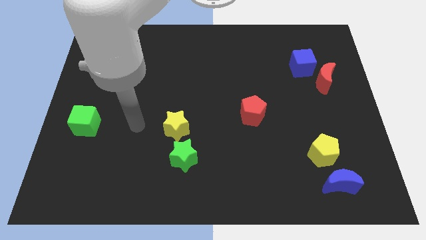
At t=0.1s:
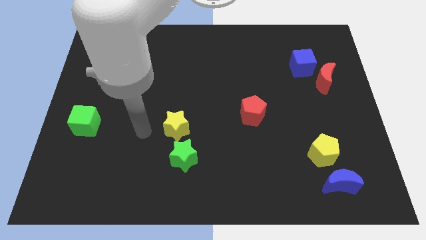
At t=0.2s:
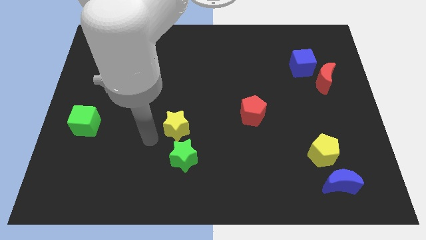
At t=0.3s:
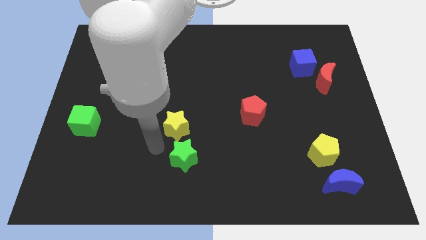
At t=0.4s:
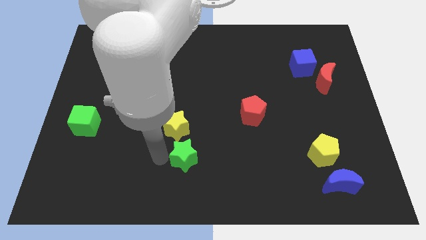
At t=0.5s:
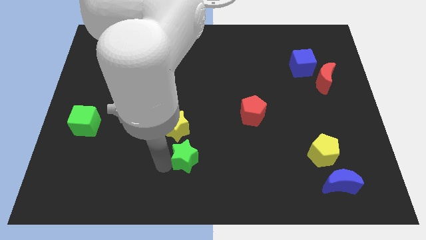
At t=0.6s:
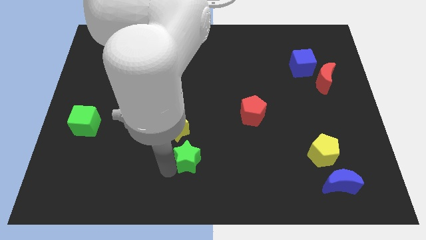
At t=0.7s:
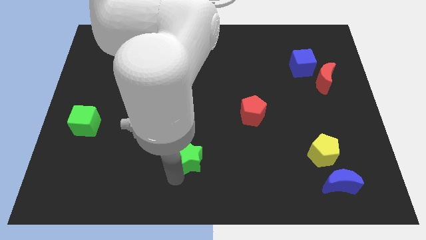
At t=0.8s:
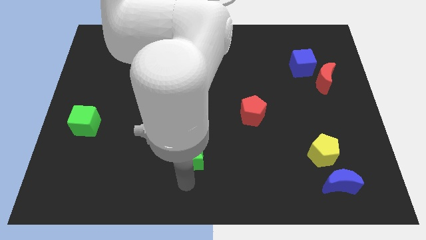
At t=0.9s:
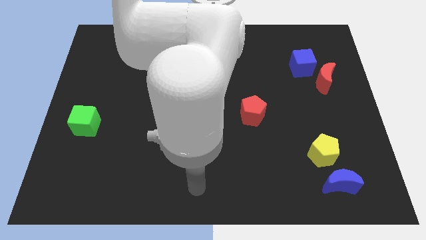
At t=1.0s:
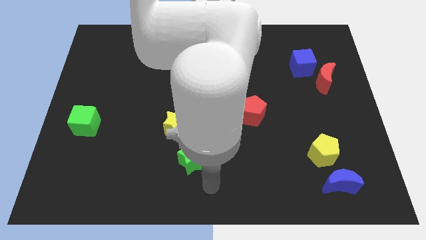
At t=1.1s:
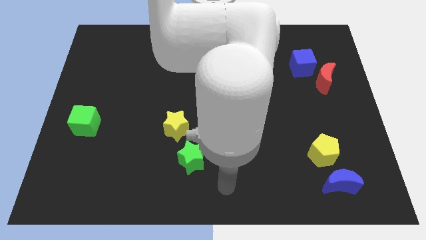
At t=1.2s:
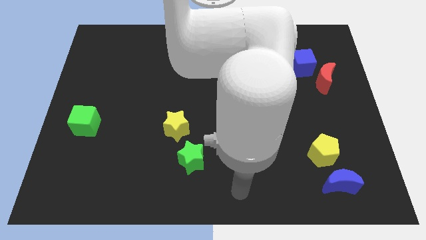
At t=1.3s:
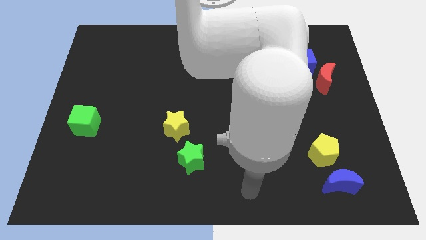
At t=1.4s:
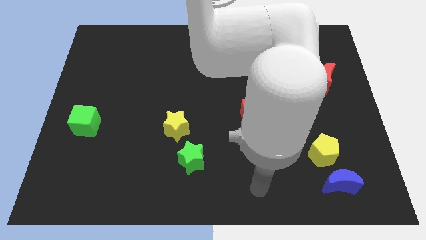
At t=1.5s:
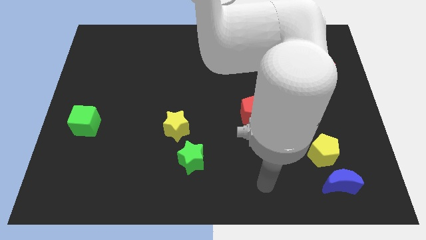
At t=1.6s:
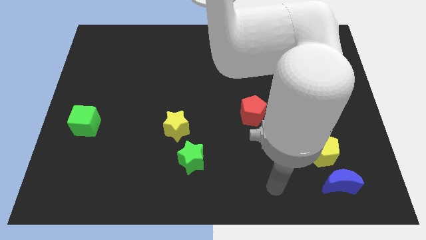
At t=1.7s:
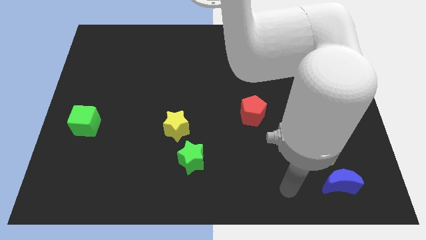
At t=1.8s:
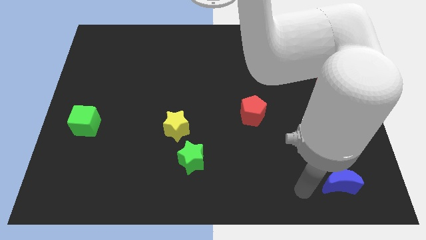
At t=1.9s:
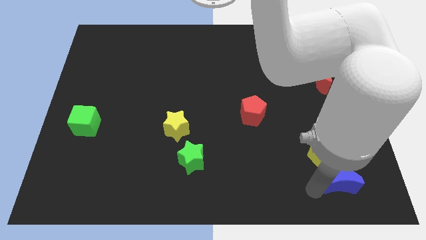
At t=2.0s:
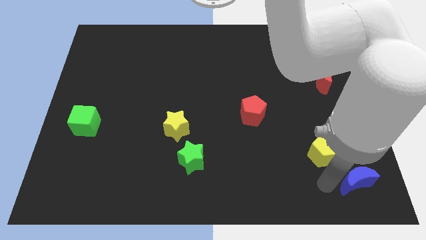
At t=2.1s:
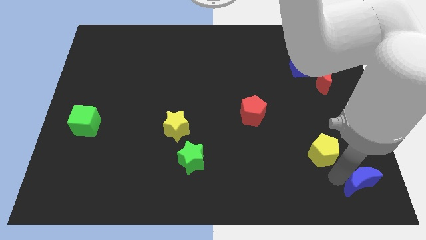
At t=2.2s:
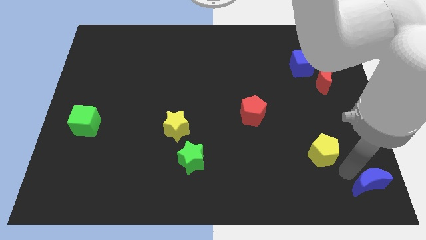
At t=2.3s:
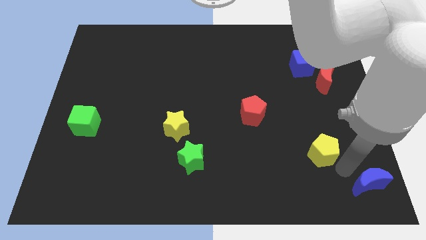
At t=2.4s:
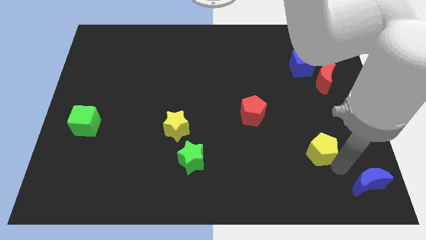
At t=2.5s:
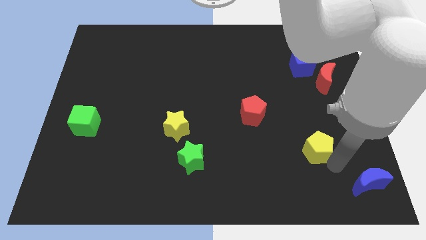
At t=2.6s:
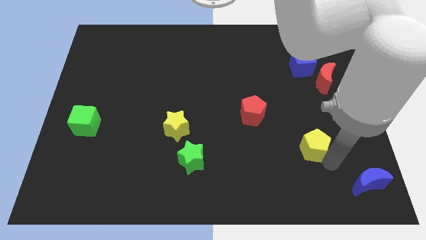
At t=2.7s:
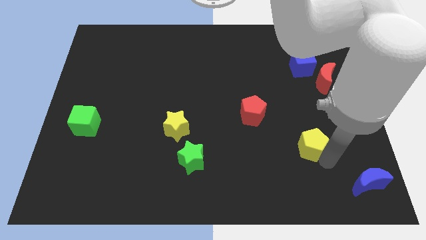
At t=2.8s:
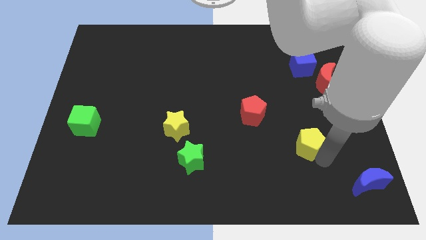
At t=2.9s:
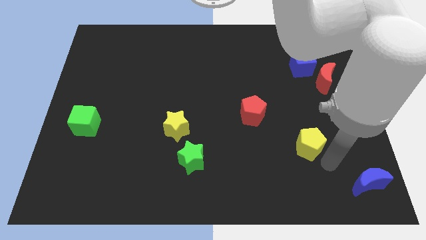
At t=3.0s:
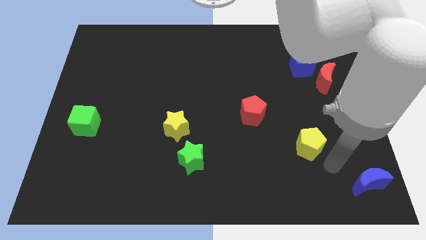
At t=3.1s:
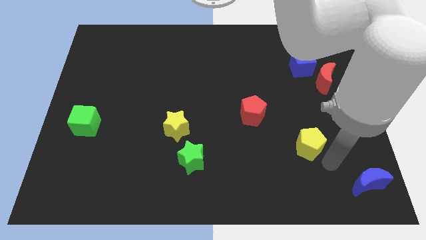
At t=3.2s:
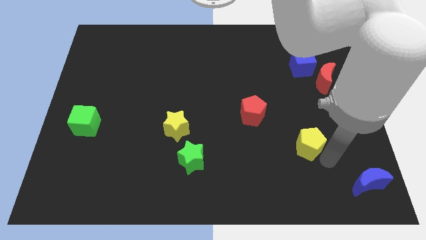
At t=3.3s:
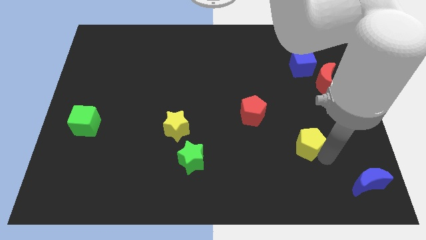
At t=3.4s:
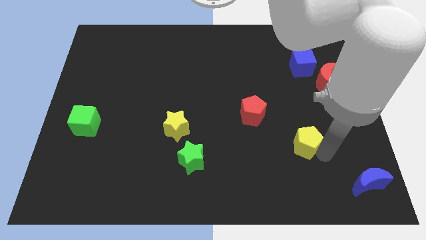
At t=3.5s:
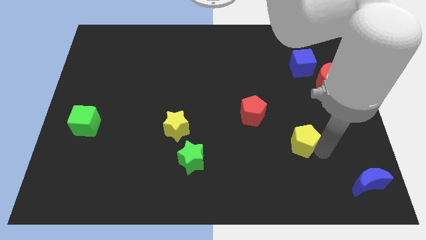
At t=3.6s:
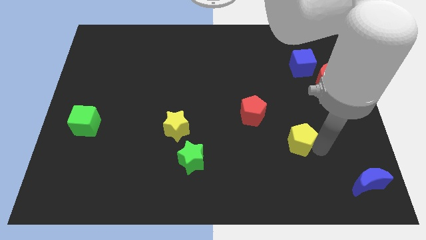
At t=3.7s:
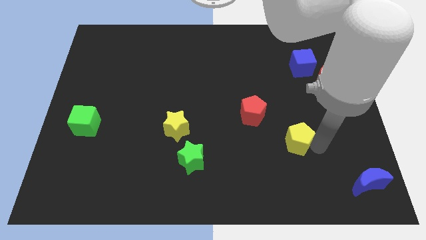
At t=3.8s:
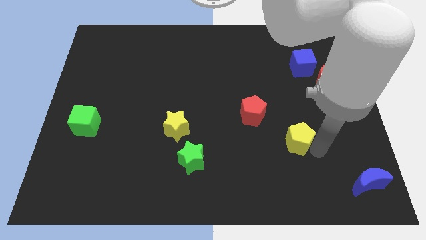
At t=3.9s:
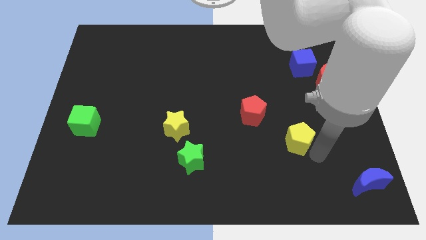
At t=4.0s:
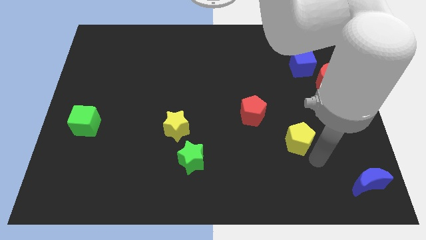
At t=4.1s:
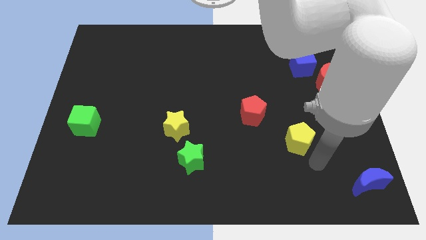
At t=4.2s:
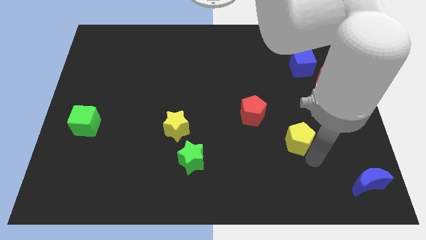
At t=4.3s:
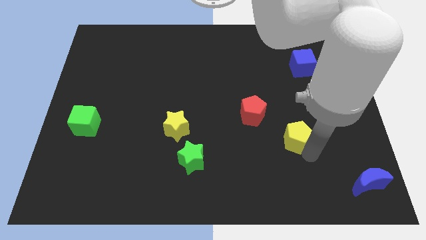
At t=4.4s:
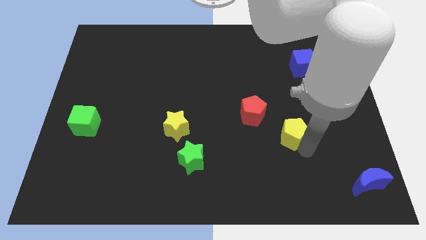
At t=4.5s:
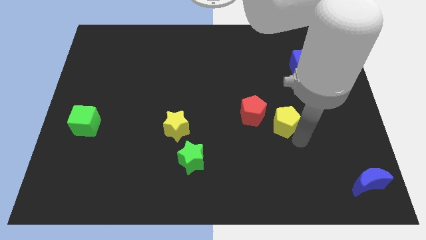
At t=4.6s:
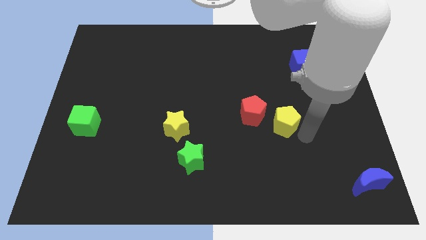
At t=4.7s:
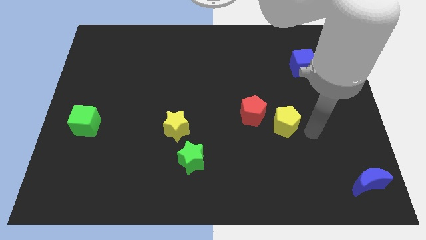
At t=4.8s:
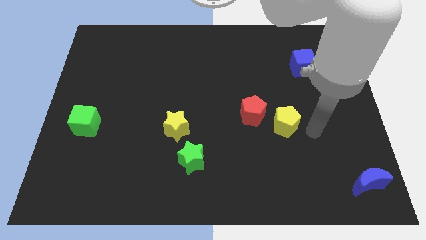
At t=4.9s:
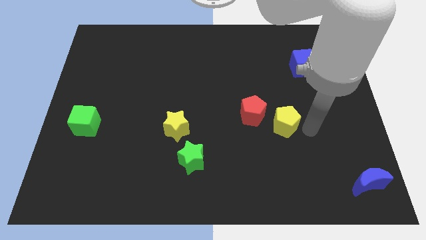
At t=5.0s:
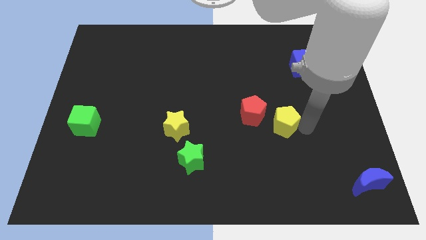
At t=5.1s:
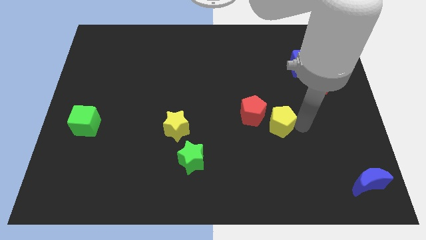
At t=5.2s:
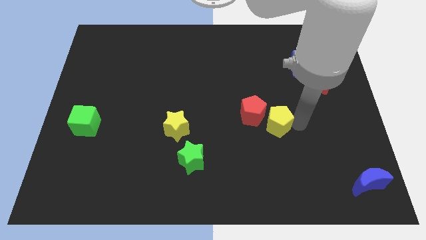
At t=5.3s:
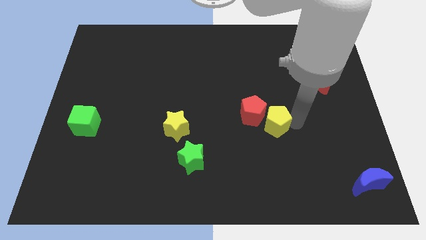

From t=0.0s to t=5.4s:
push the yellow pentagon towards the red pentagon

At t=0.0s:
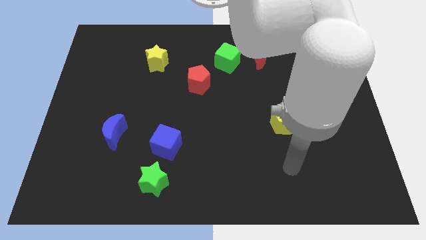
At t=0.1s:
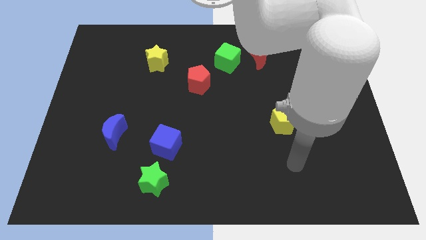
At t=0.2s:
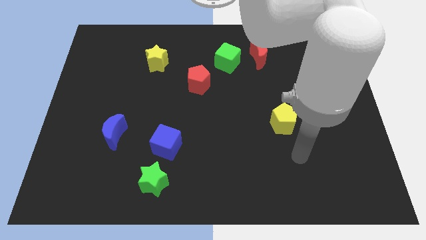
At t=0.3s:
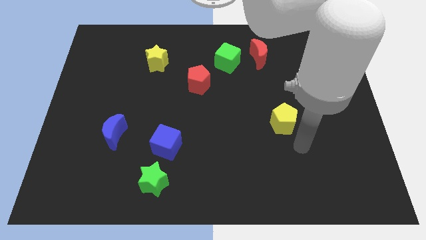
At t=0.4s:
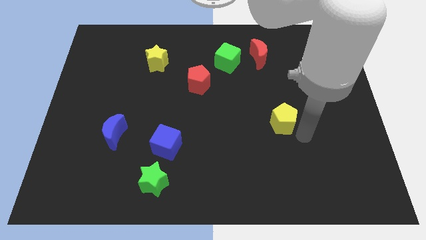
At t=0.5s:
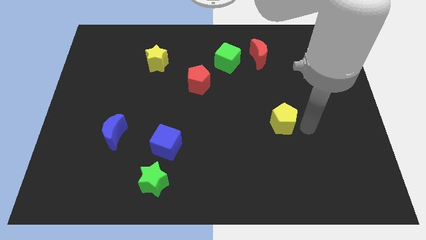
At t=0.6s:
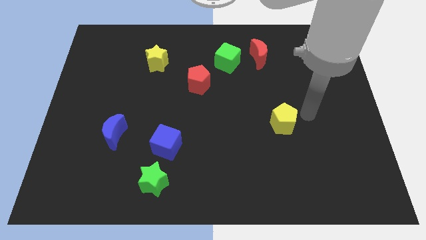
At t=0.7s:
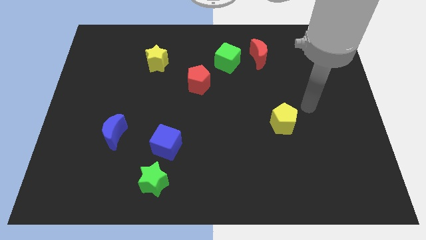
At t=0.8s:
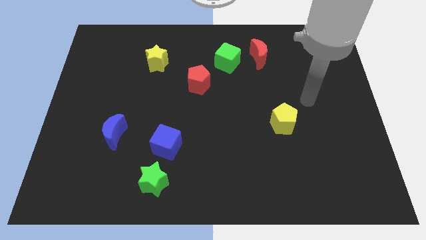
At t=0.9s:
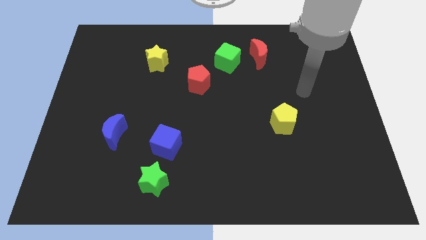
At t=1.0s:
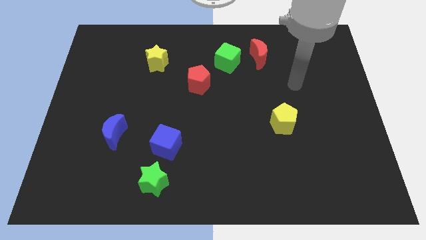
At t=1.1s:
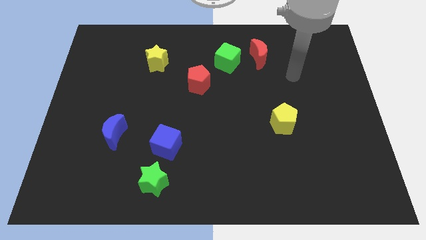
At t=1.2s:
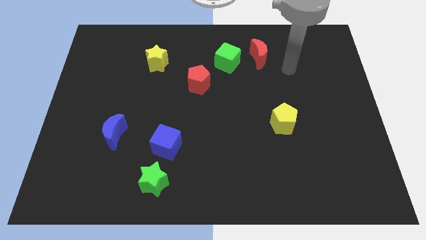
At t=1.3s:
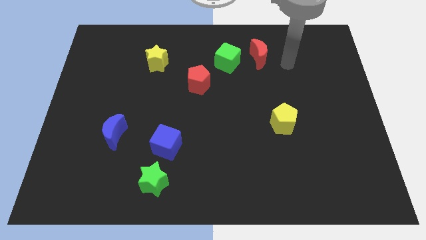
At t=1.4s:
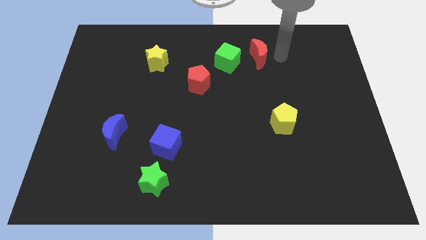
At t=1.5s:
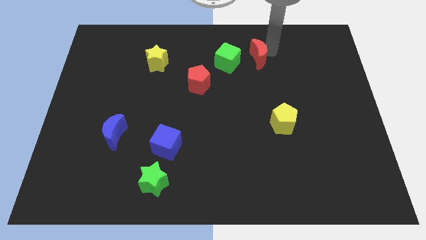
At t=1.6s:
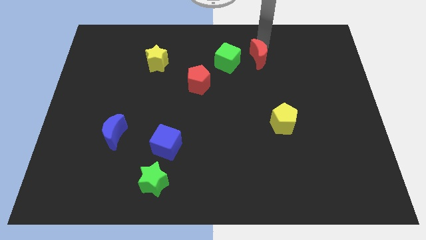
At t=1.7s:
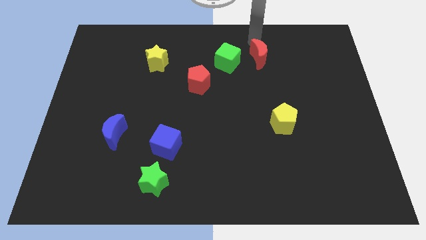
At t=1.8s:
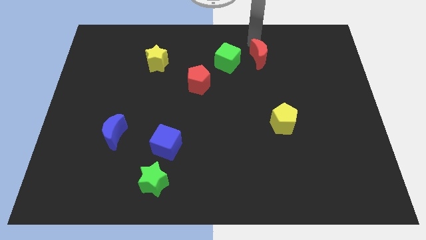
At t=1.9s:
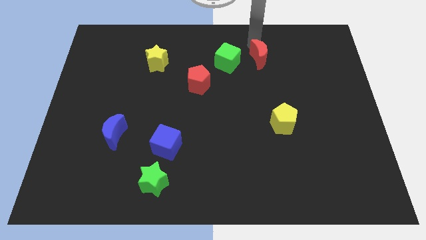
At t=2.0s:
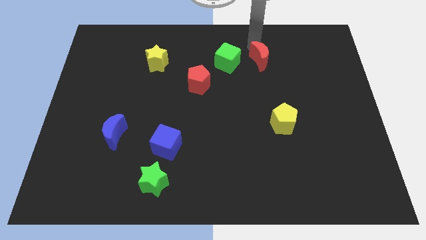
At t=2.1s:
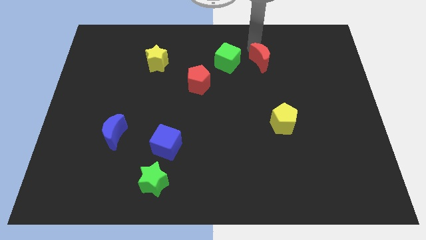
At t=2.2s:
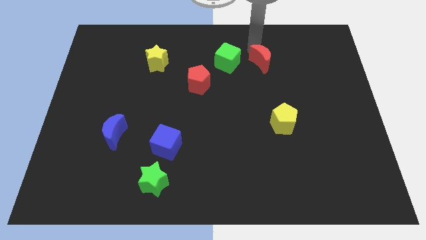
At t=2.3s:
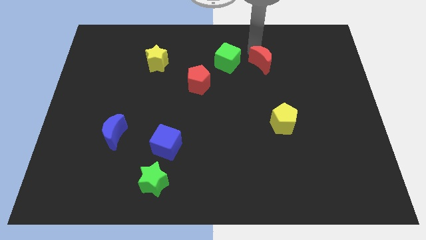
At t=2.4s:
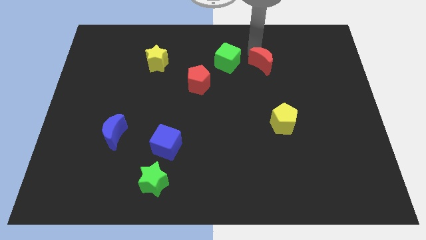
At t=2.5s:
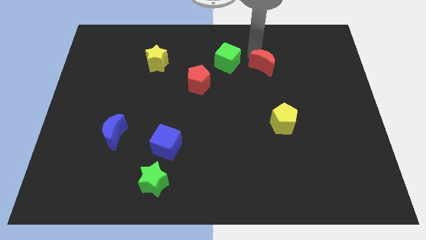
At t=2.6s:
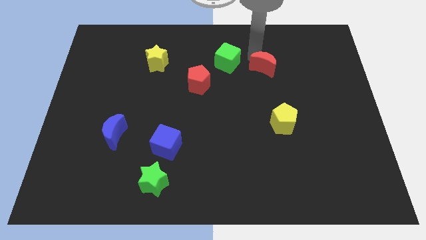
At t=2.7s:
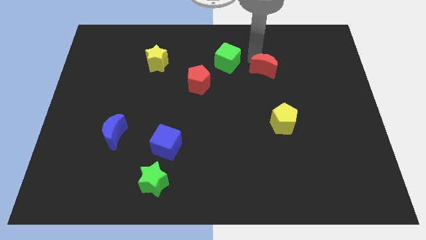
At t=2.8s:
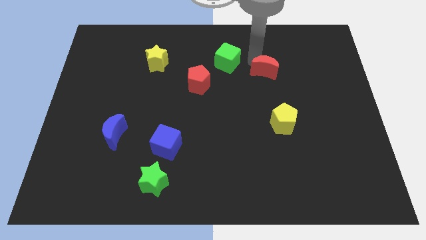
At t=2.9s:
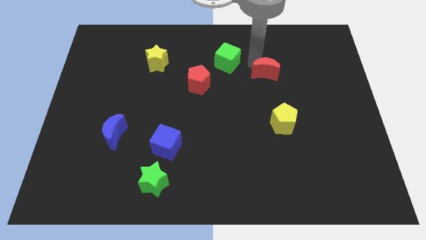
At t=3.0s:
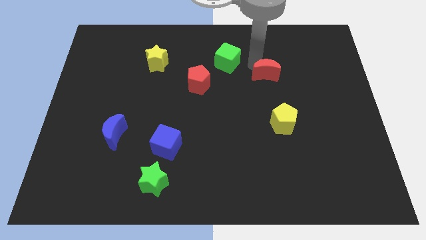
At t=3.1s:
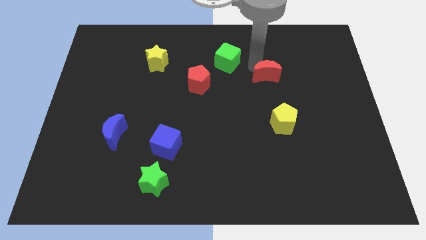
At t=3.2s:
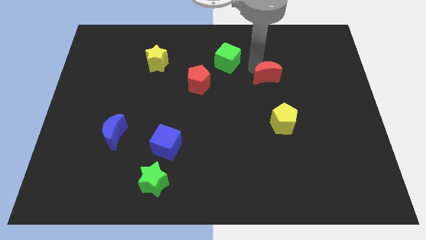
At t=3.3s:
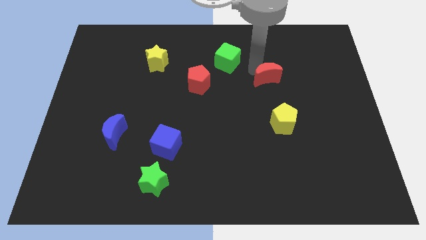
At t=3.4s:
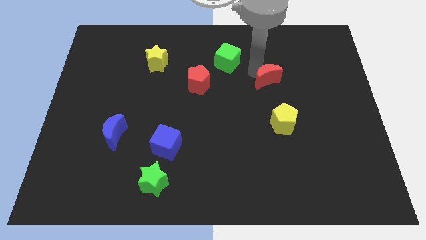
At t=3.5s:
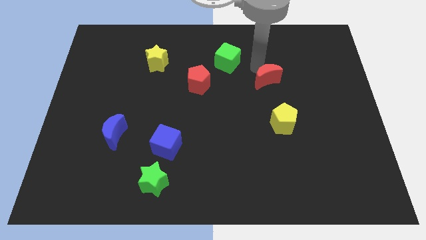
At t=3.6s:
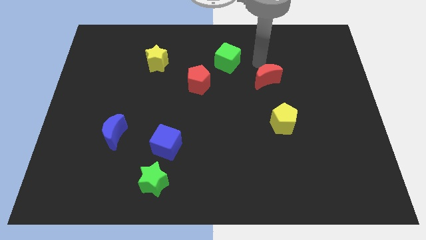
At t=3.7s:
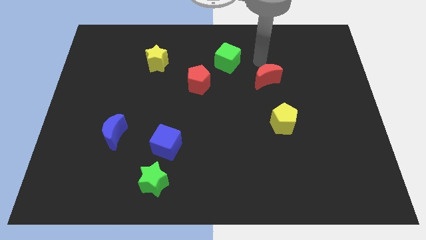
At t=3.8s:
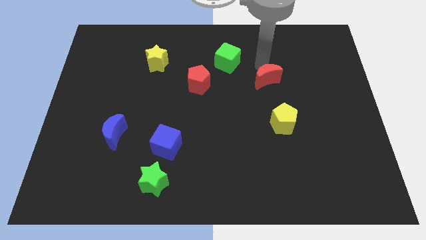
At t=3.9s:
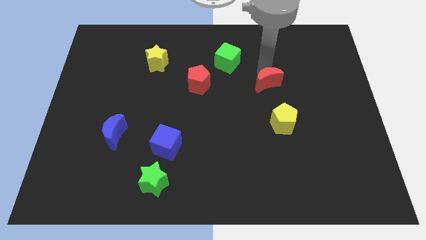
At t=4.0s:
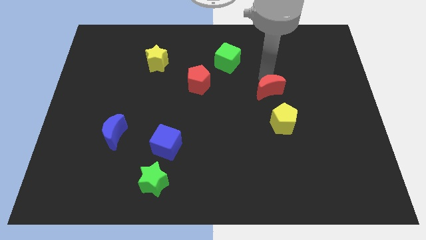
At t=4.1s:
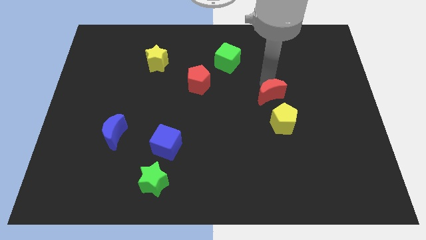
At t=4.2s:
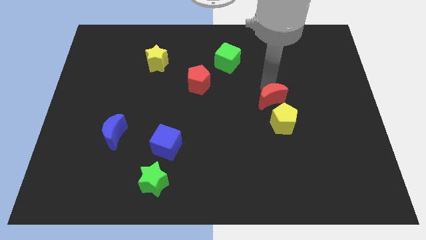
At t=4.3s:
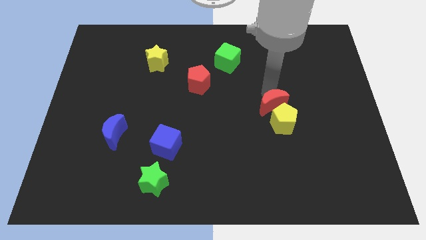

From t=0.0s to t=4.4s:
push the red moon next to the yellow pentagon
